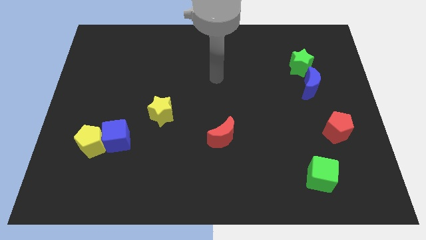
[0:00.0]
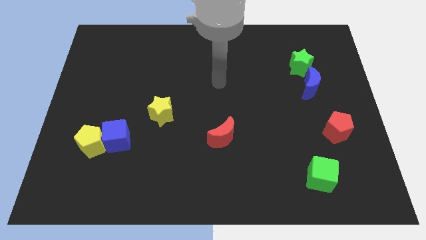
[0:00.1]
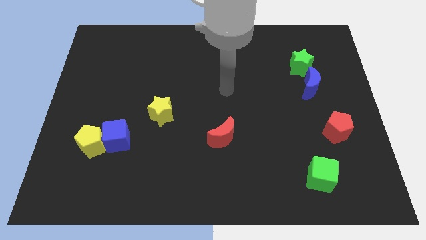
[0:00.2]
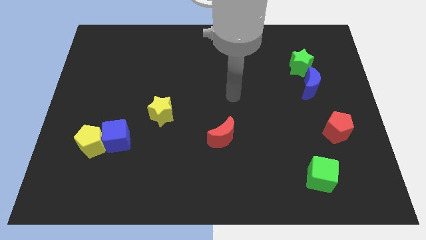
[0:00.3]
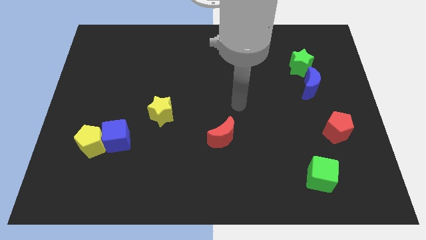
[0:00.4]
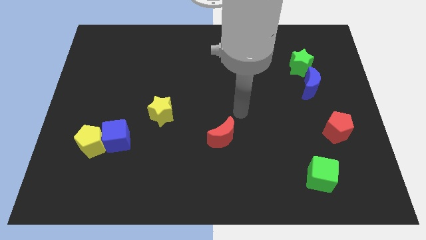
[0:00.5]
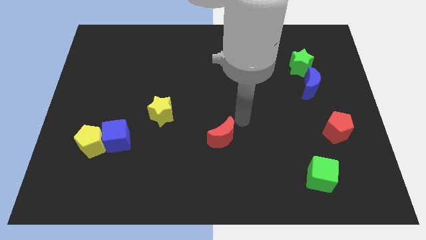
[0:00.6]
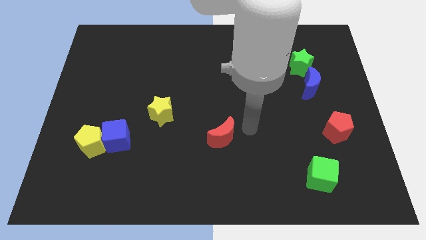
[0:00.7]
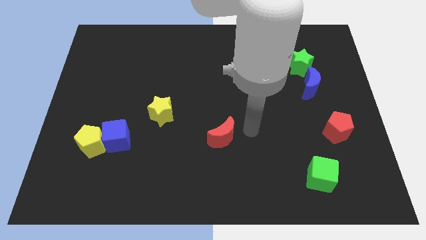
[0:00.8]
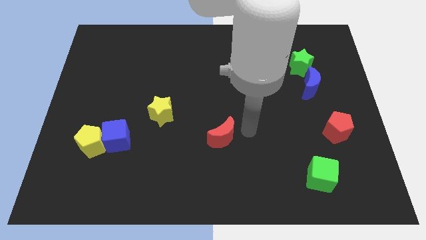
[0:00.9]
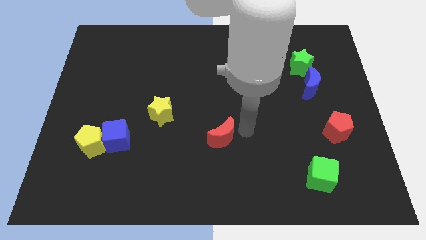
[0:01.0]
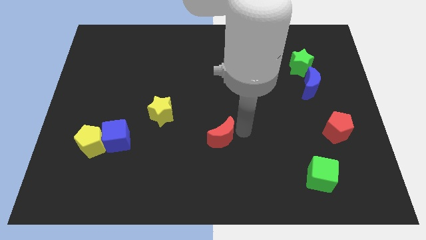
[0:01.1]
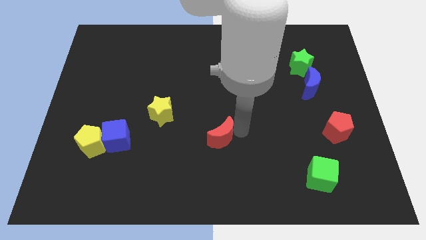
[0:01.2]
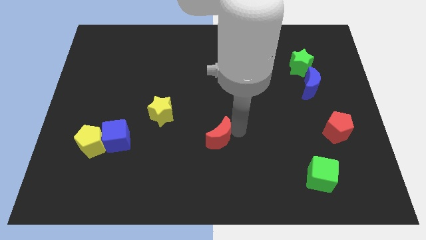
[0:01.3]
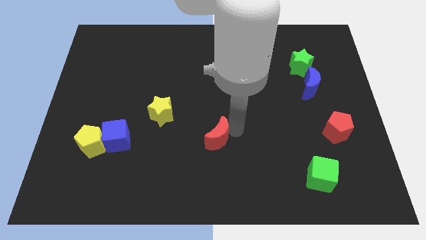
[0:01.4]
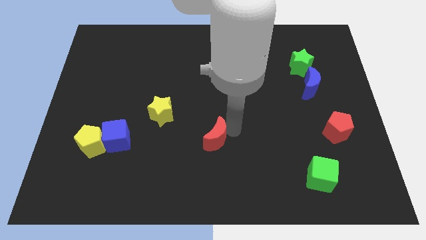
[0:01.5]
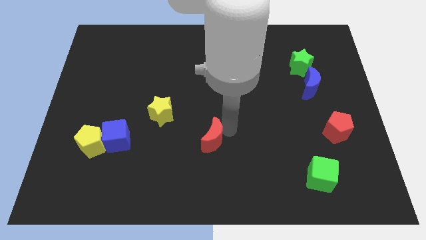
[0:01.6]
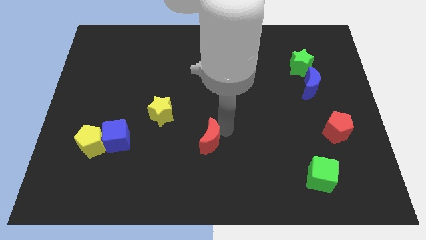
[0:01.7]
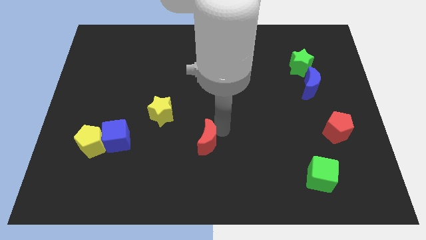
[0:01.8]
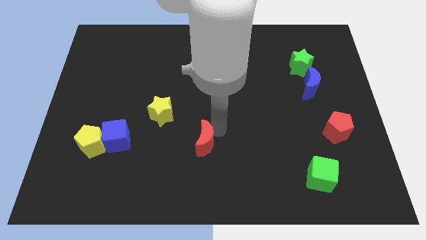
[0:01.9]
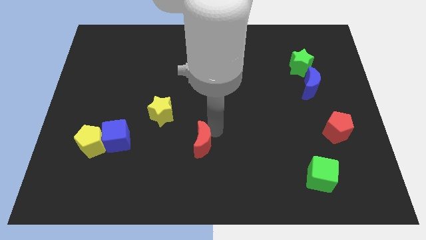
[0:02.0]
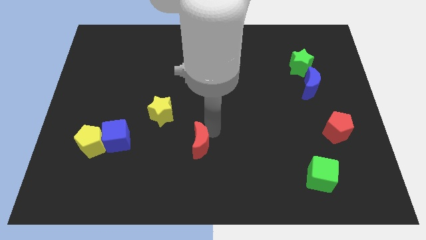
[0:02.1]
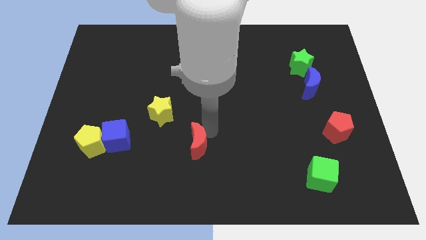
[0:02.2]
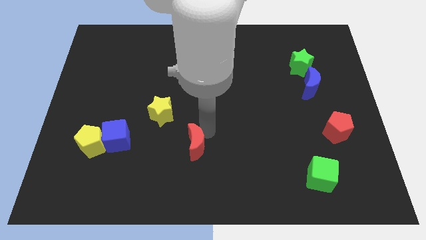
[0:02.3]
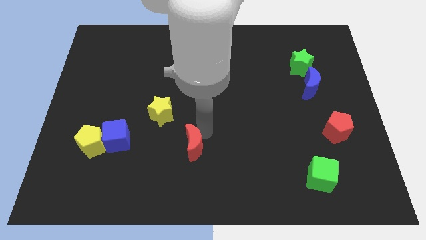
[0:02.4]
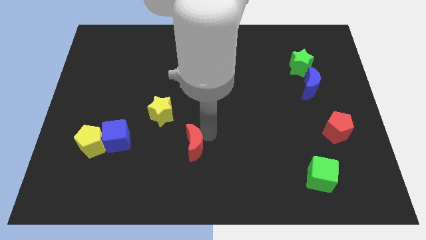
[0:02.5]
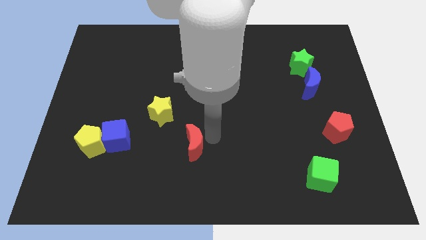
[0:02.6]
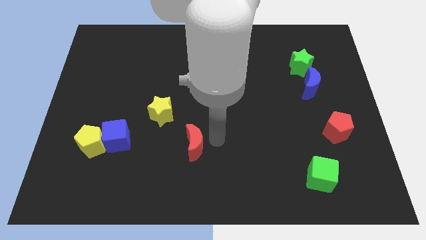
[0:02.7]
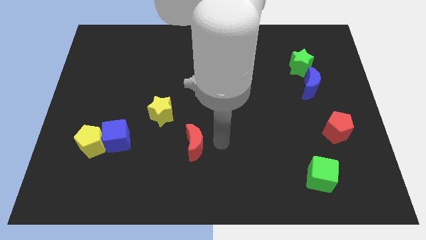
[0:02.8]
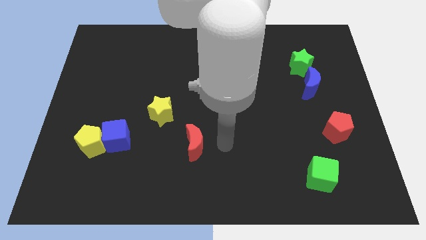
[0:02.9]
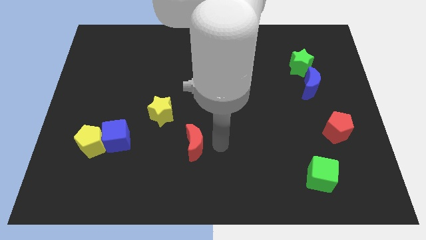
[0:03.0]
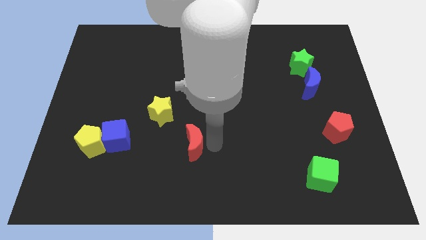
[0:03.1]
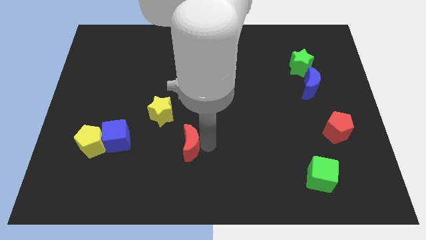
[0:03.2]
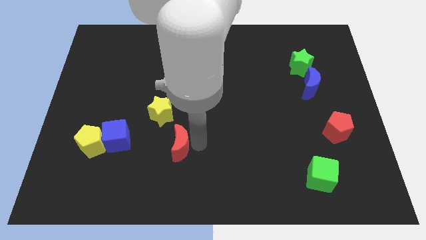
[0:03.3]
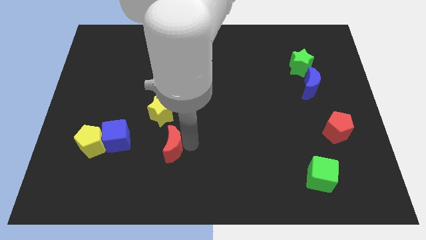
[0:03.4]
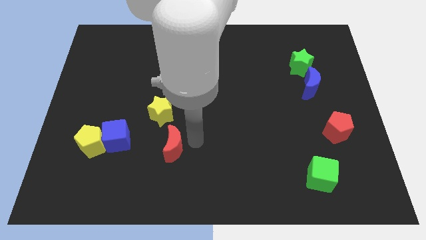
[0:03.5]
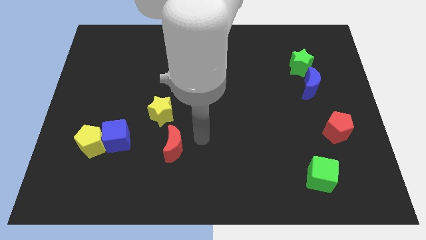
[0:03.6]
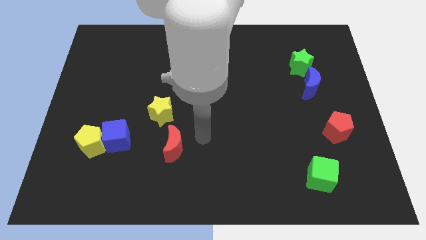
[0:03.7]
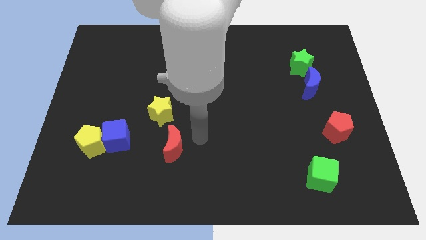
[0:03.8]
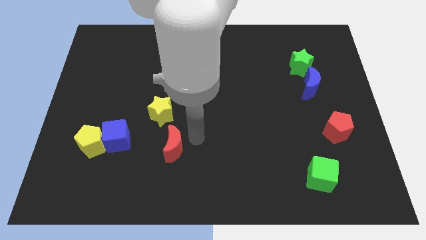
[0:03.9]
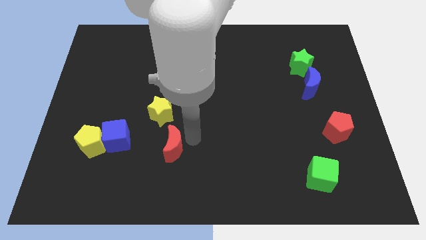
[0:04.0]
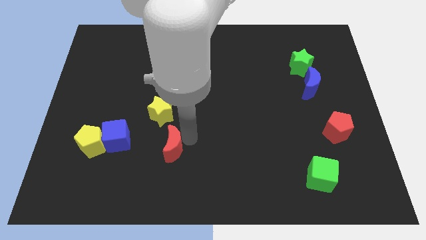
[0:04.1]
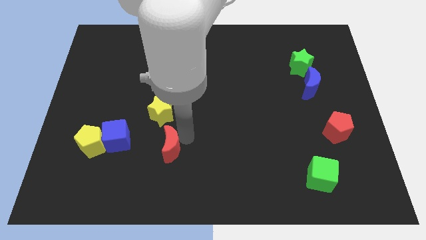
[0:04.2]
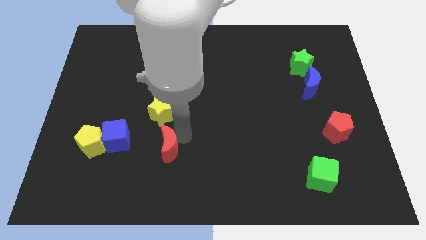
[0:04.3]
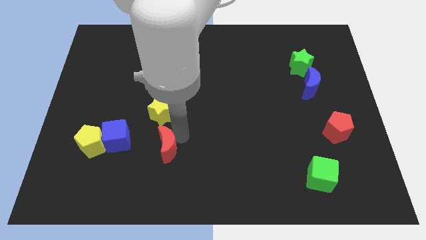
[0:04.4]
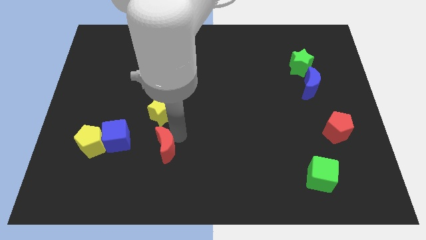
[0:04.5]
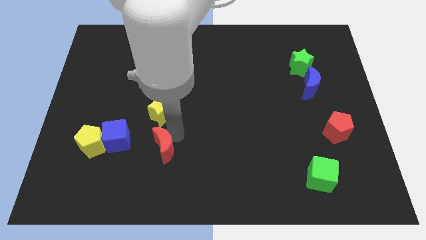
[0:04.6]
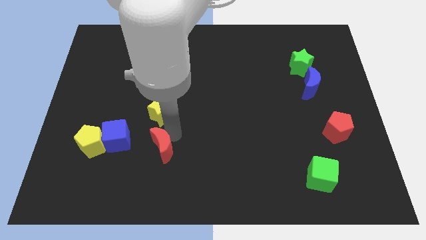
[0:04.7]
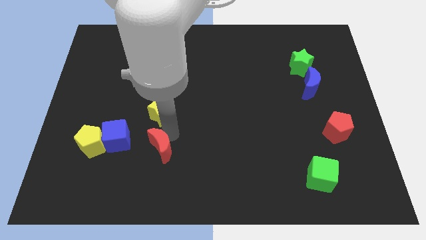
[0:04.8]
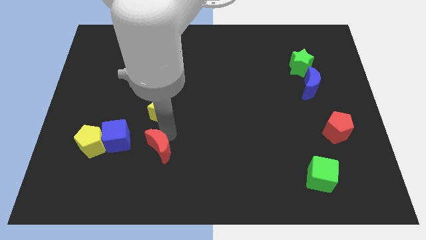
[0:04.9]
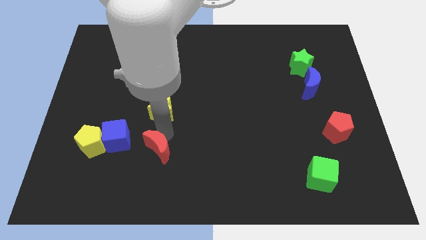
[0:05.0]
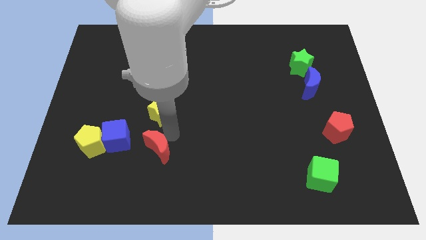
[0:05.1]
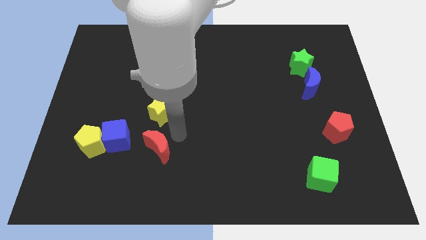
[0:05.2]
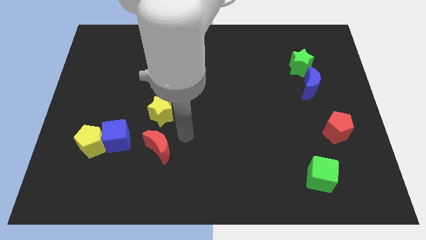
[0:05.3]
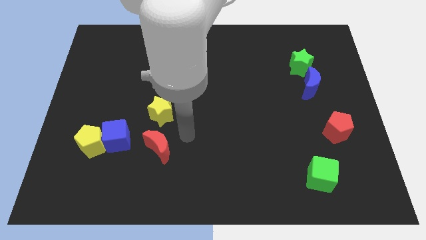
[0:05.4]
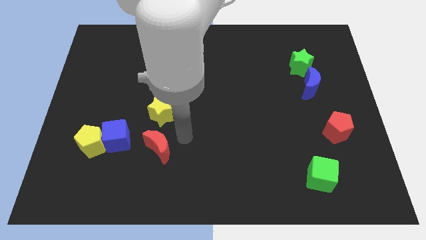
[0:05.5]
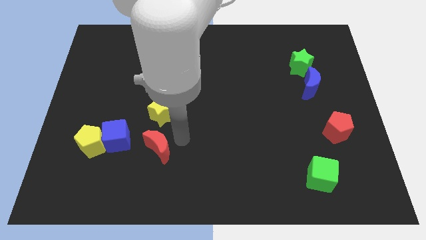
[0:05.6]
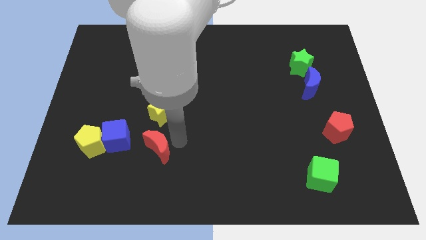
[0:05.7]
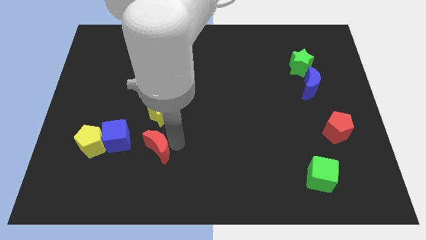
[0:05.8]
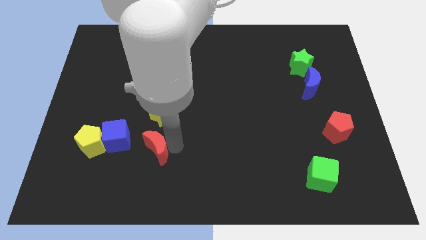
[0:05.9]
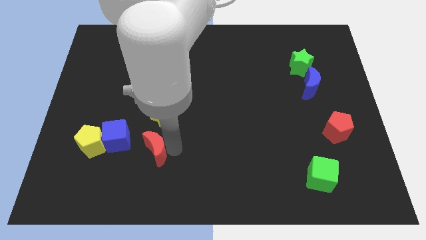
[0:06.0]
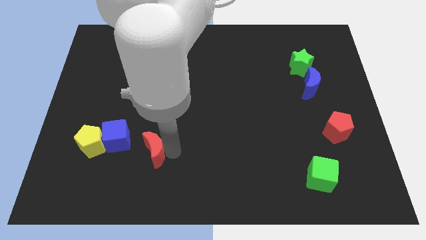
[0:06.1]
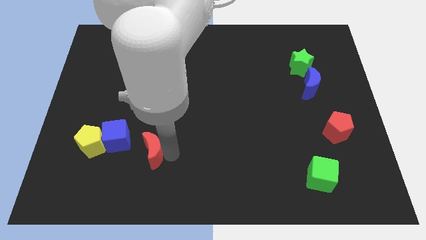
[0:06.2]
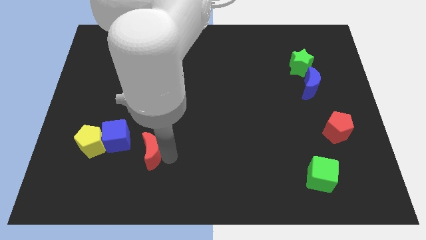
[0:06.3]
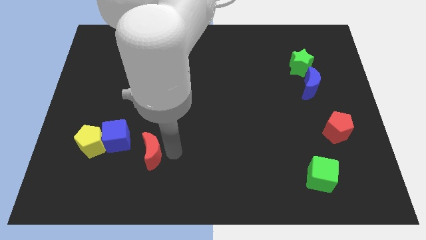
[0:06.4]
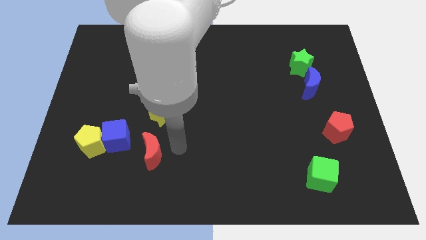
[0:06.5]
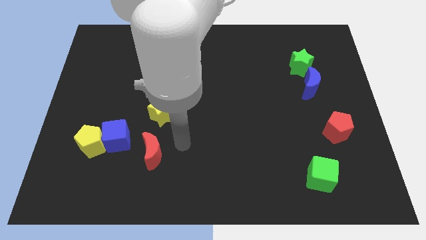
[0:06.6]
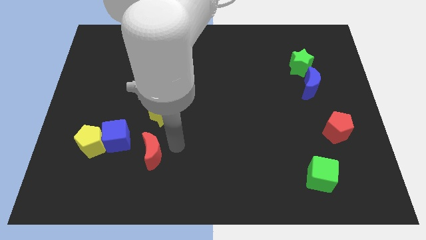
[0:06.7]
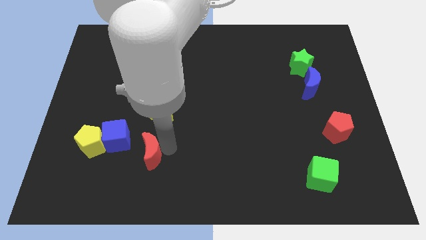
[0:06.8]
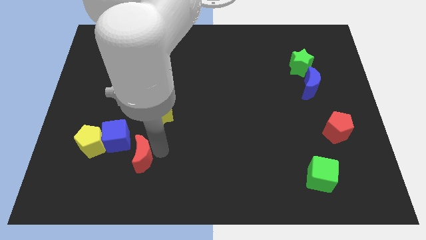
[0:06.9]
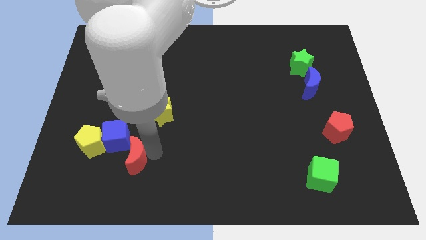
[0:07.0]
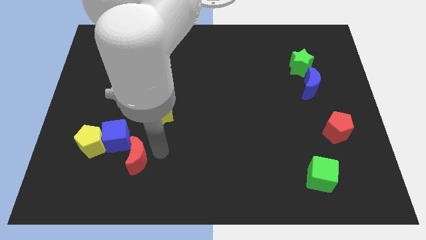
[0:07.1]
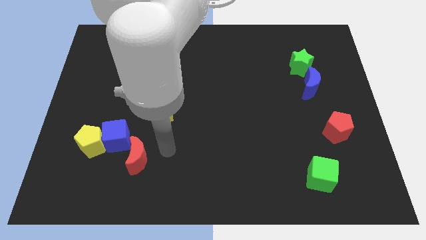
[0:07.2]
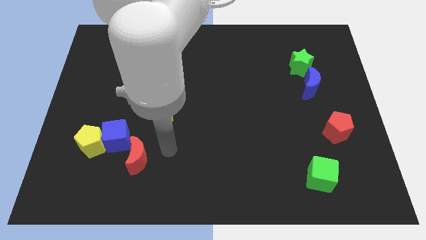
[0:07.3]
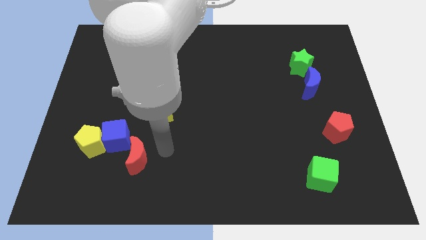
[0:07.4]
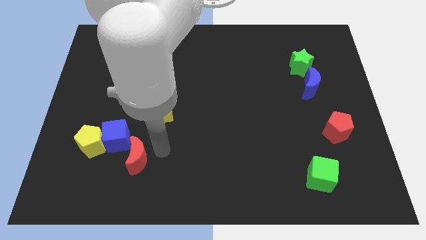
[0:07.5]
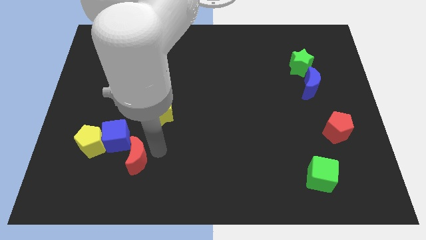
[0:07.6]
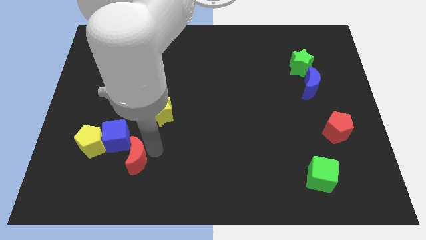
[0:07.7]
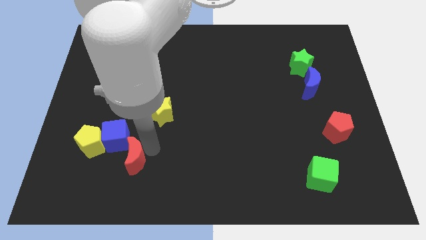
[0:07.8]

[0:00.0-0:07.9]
push the red moon to the bottom right side of the yellow pentagon
